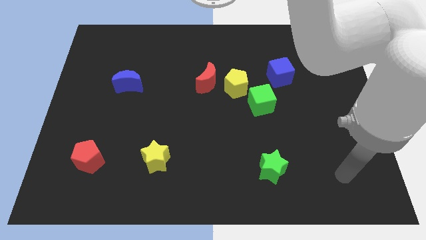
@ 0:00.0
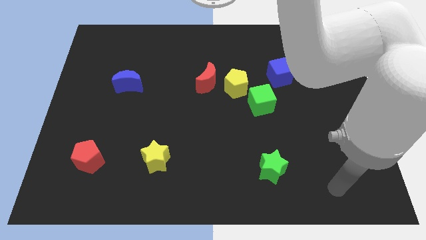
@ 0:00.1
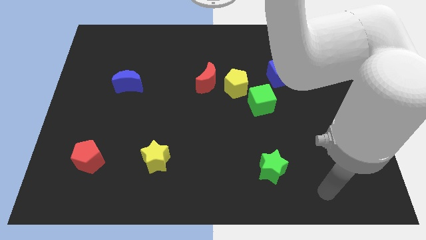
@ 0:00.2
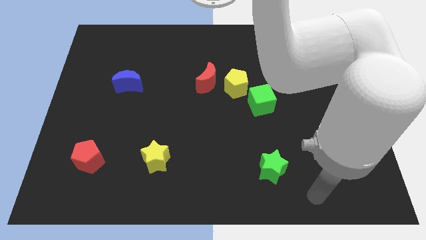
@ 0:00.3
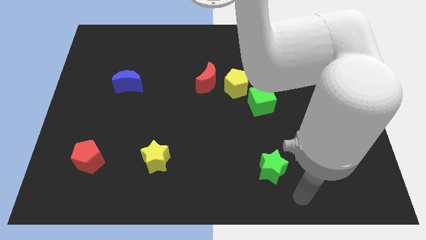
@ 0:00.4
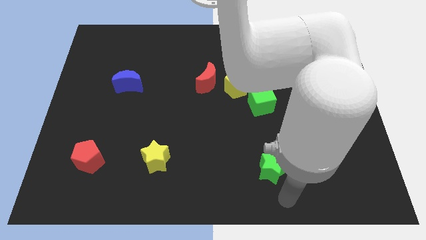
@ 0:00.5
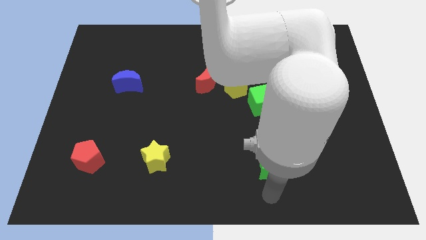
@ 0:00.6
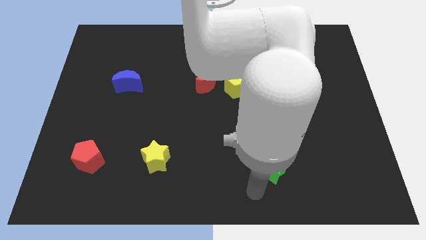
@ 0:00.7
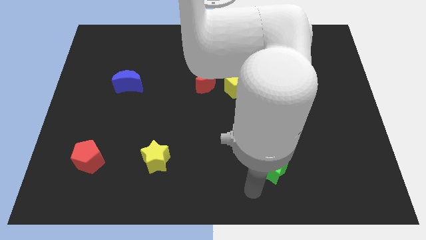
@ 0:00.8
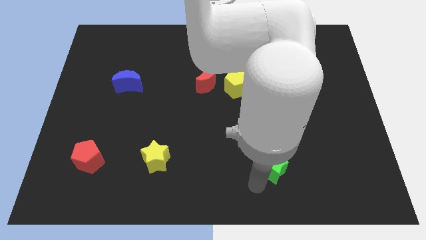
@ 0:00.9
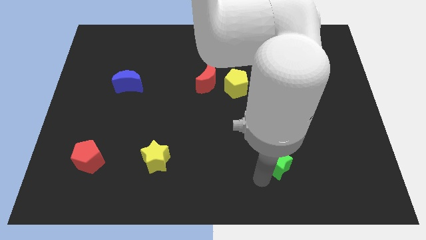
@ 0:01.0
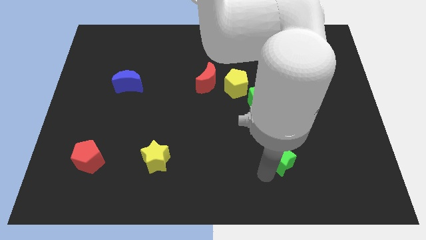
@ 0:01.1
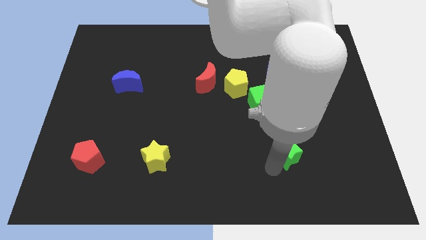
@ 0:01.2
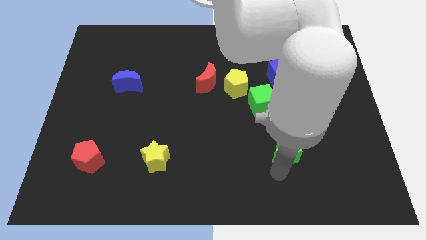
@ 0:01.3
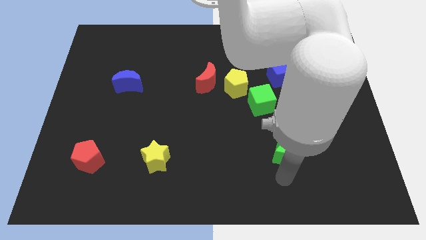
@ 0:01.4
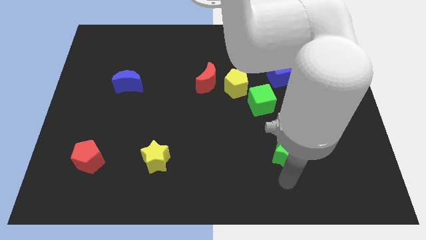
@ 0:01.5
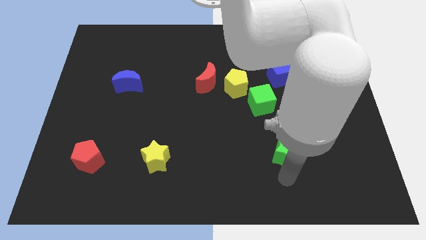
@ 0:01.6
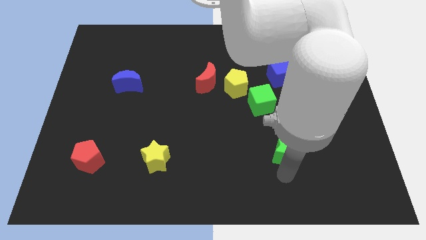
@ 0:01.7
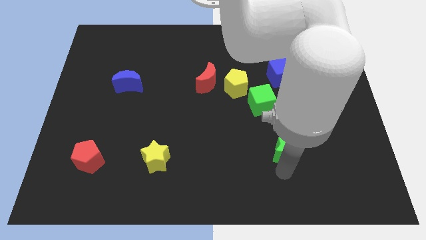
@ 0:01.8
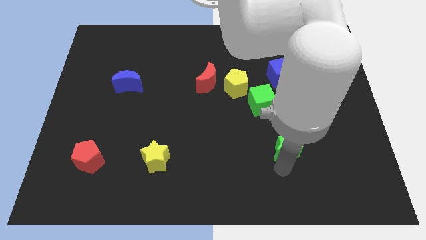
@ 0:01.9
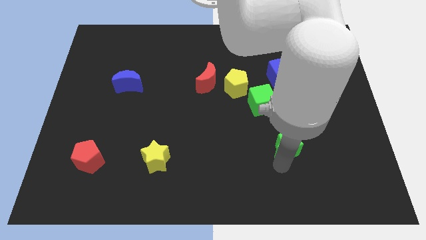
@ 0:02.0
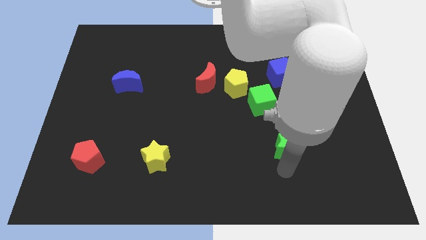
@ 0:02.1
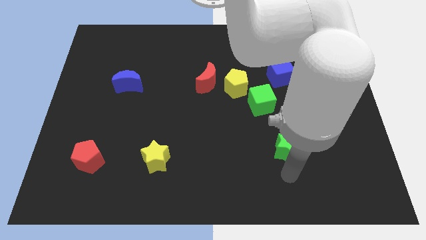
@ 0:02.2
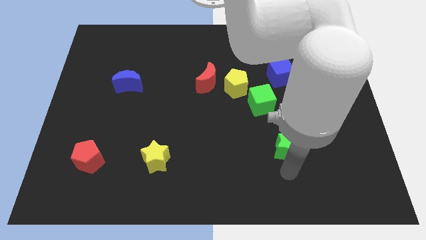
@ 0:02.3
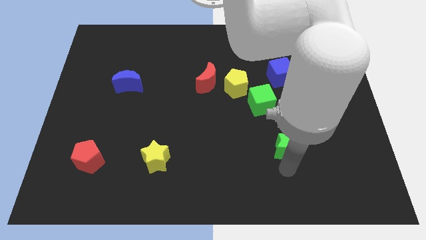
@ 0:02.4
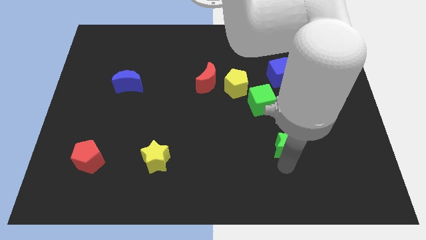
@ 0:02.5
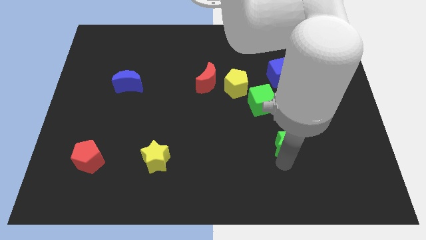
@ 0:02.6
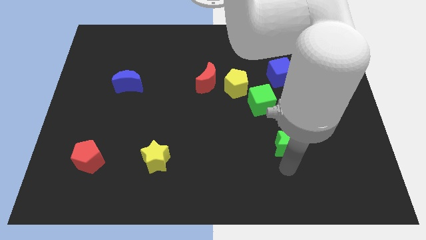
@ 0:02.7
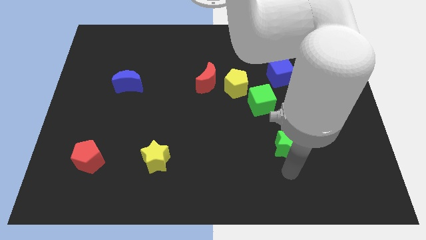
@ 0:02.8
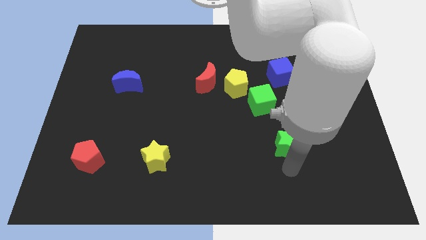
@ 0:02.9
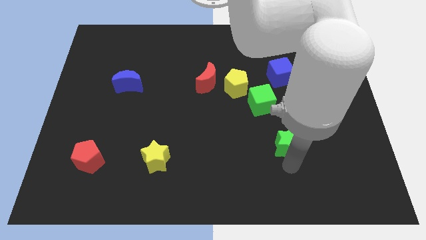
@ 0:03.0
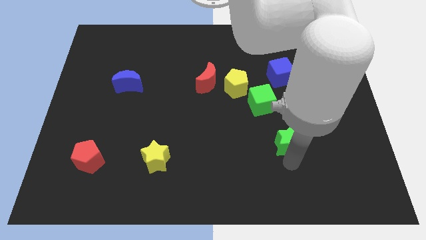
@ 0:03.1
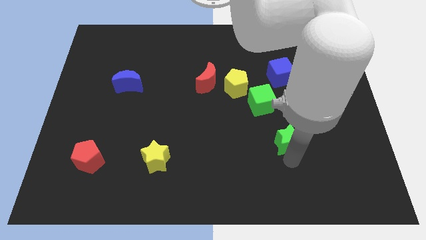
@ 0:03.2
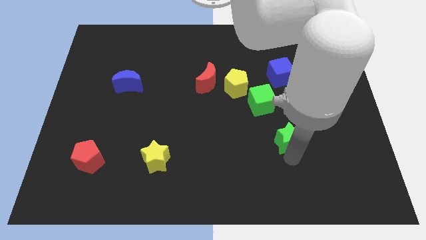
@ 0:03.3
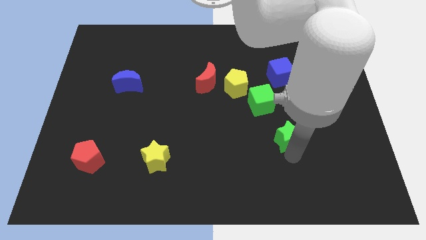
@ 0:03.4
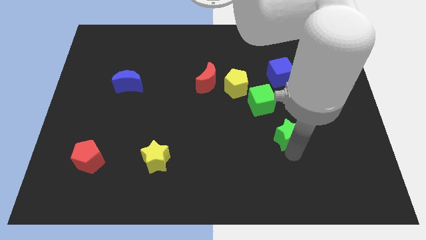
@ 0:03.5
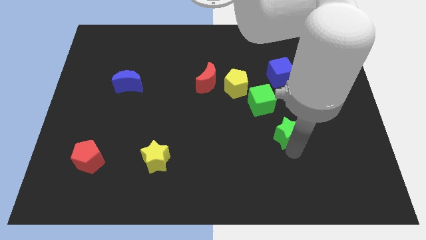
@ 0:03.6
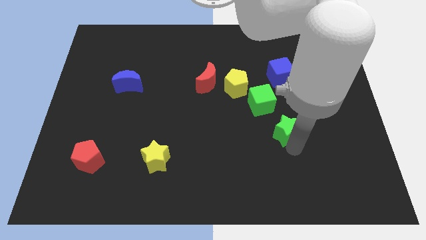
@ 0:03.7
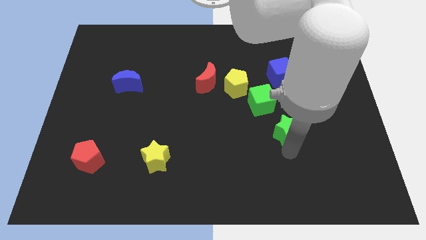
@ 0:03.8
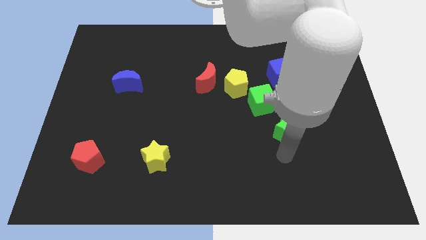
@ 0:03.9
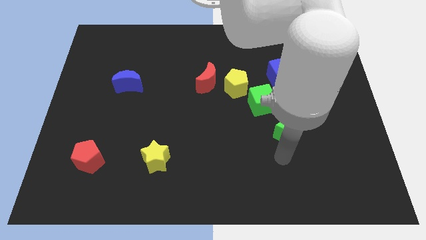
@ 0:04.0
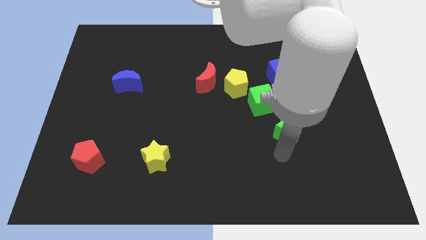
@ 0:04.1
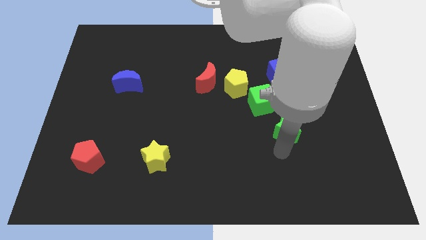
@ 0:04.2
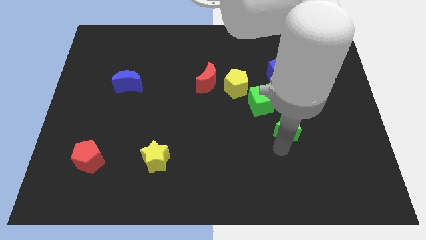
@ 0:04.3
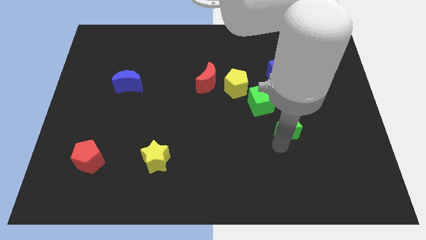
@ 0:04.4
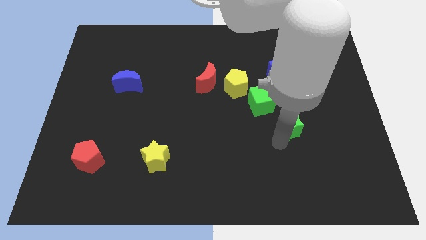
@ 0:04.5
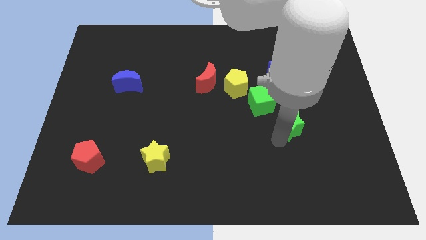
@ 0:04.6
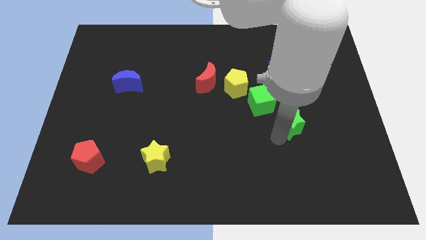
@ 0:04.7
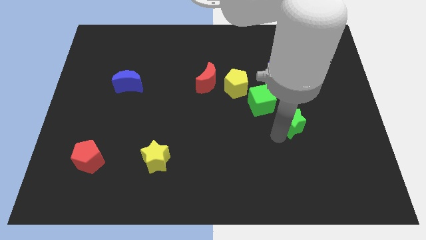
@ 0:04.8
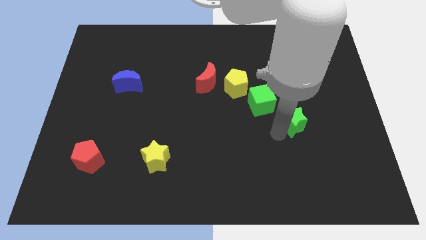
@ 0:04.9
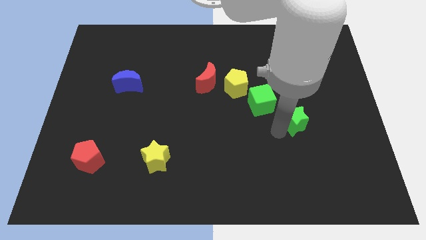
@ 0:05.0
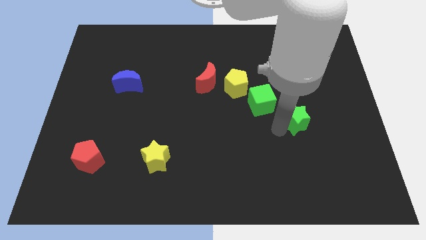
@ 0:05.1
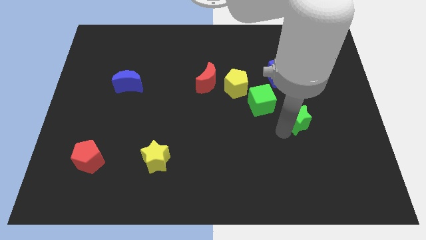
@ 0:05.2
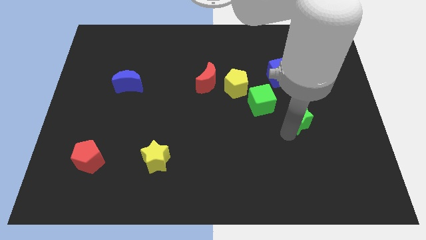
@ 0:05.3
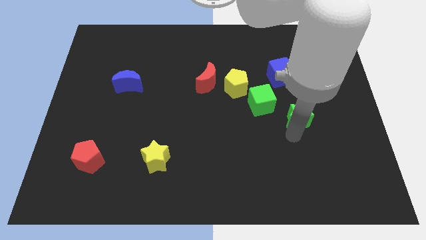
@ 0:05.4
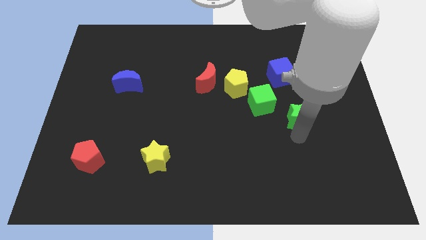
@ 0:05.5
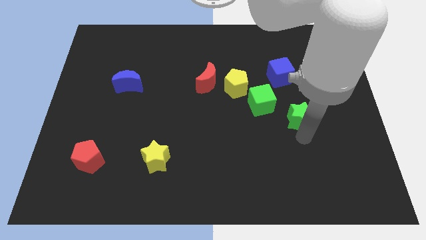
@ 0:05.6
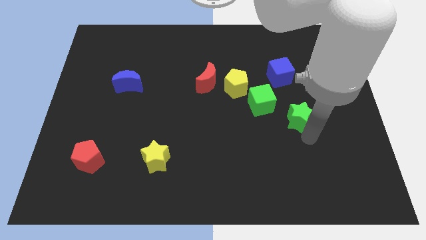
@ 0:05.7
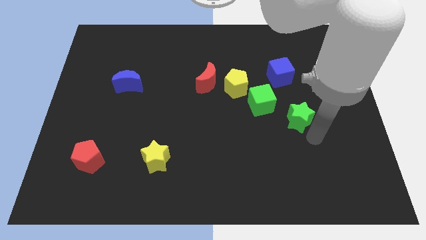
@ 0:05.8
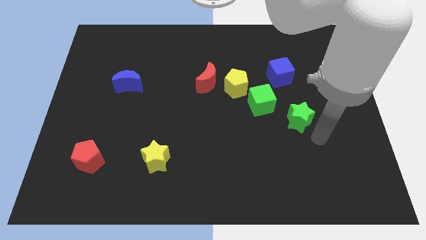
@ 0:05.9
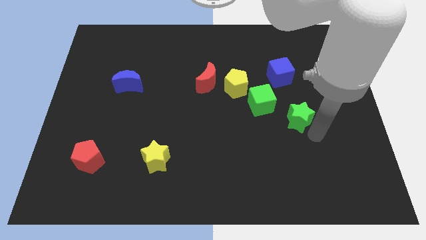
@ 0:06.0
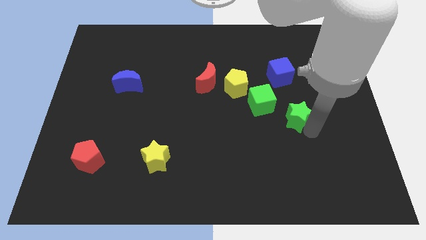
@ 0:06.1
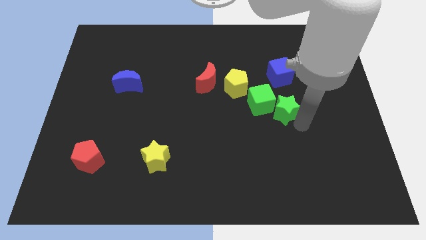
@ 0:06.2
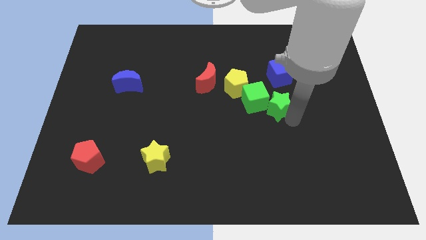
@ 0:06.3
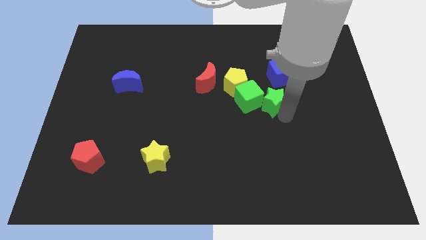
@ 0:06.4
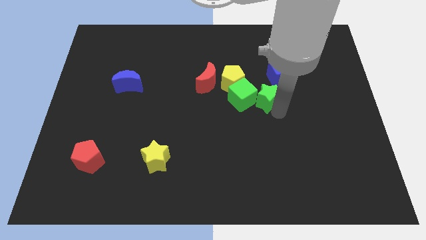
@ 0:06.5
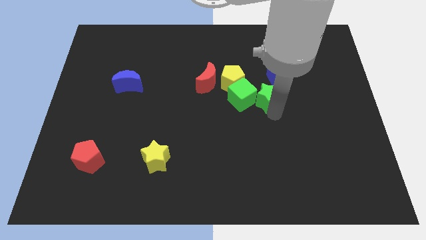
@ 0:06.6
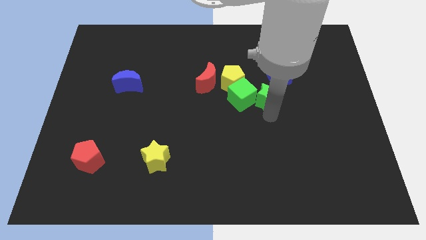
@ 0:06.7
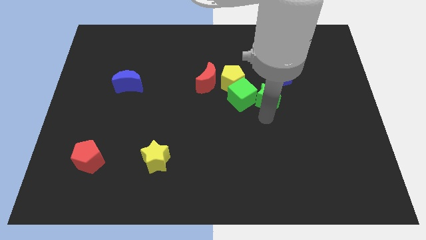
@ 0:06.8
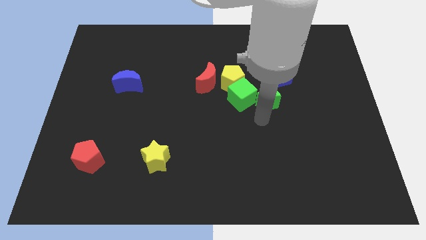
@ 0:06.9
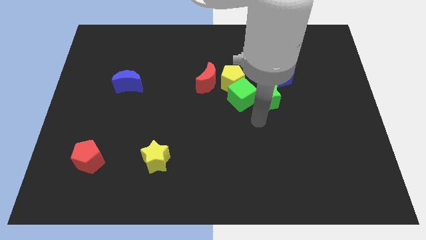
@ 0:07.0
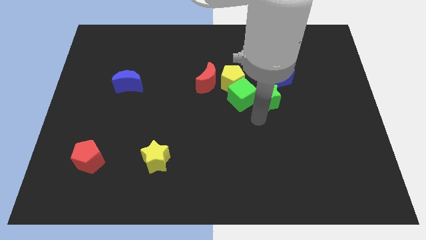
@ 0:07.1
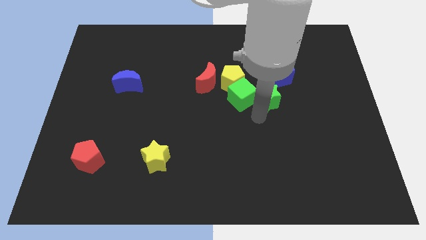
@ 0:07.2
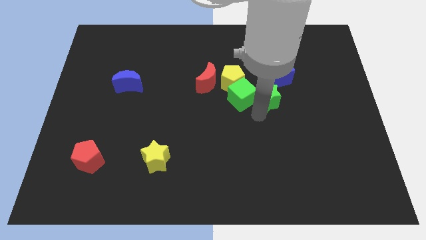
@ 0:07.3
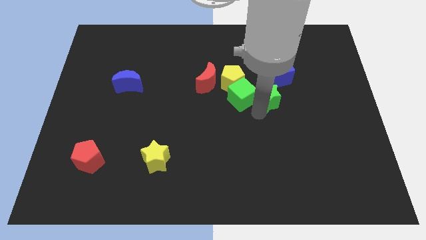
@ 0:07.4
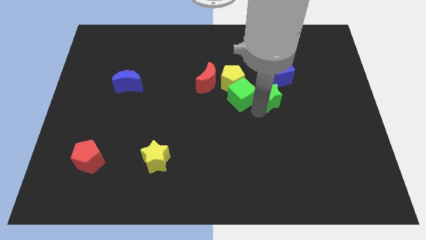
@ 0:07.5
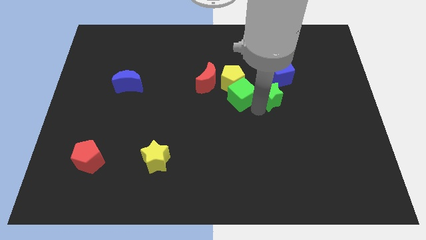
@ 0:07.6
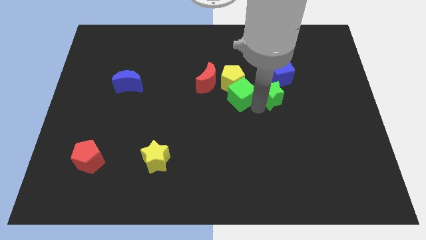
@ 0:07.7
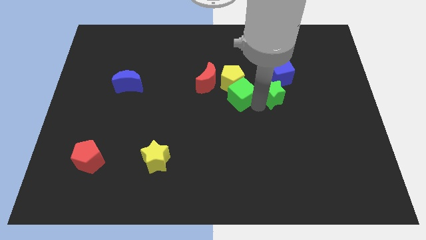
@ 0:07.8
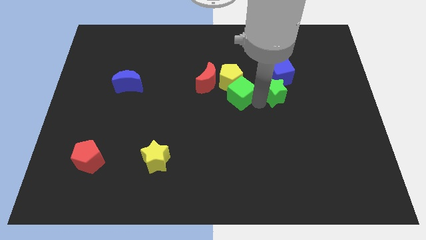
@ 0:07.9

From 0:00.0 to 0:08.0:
push the green star up
